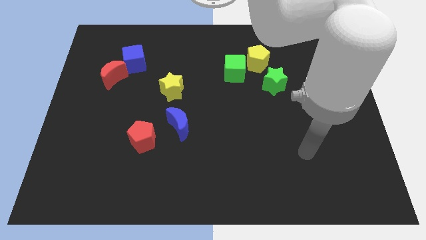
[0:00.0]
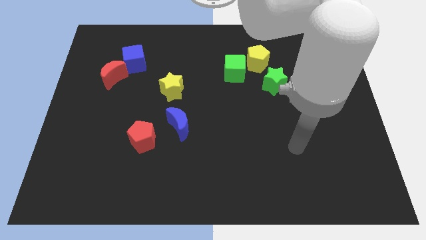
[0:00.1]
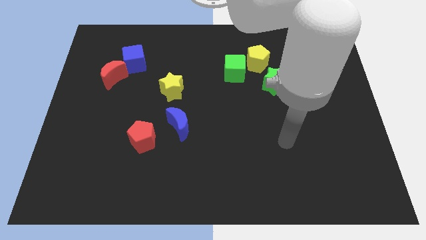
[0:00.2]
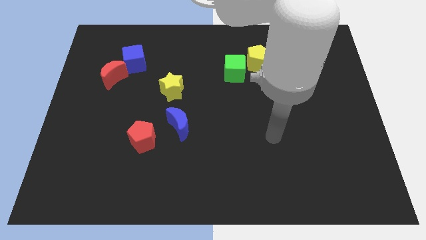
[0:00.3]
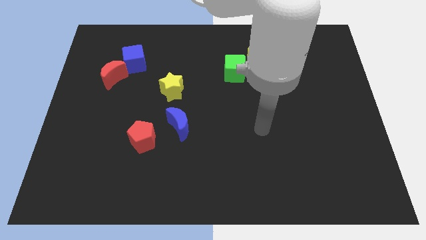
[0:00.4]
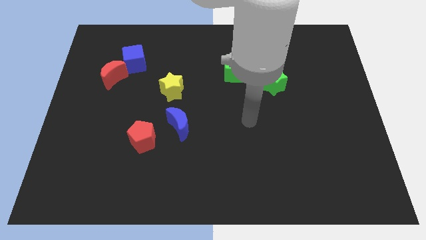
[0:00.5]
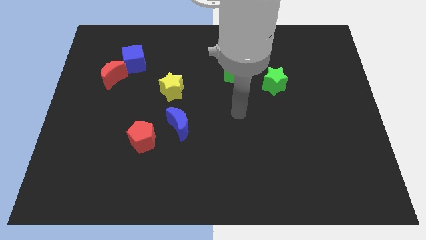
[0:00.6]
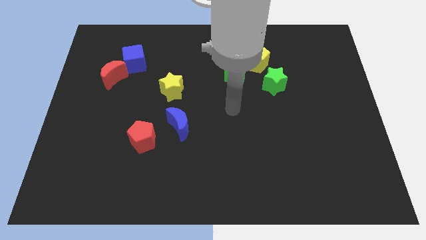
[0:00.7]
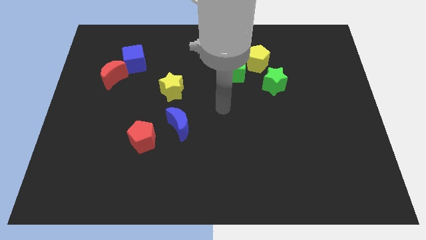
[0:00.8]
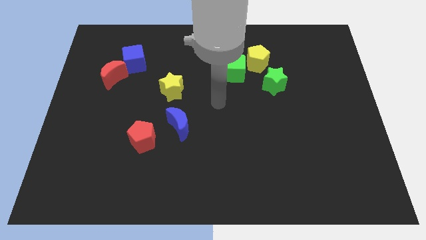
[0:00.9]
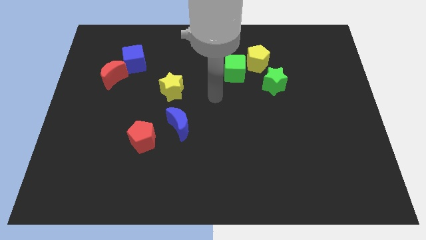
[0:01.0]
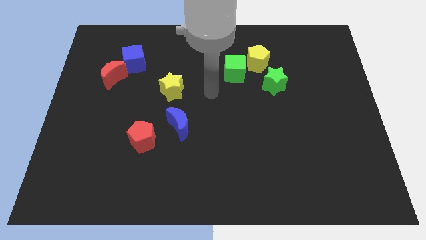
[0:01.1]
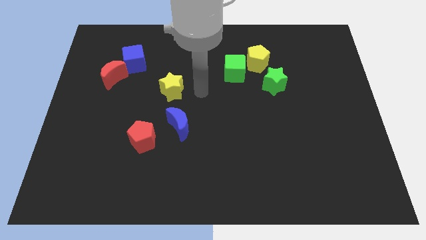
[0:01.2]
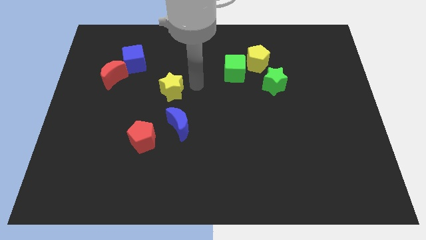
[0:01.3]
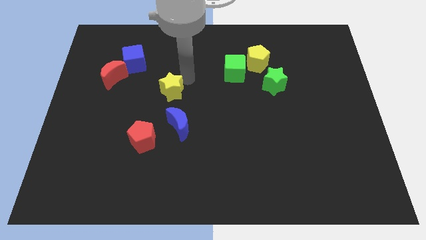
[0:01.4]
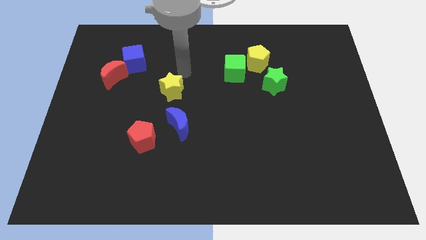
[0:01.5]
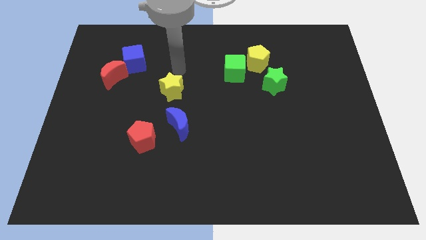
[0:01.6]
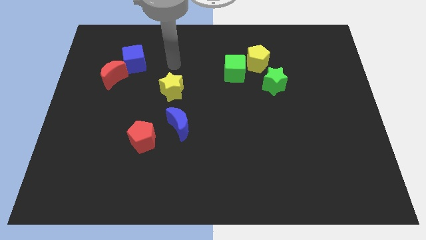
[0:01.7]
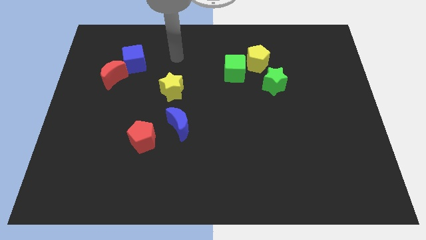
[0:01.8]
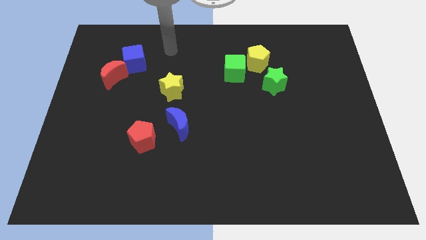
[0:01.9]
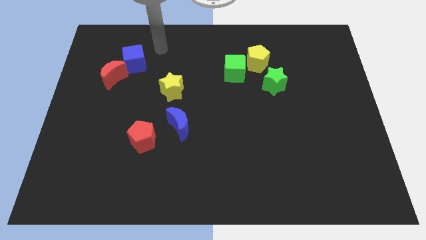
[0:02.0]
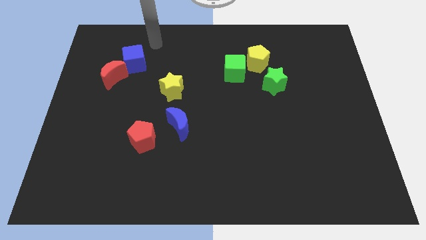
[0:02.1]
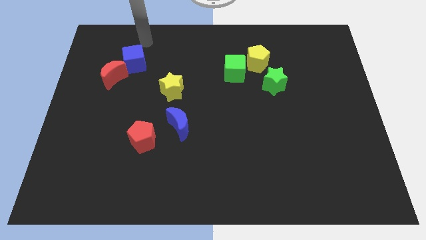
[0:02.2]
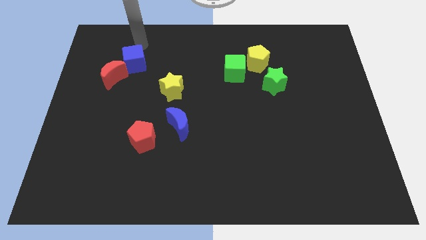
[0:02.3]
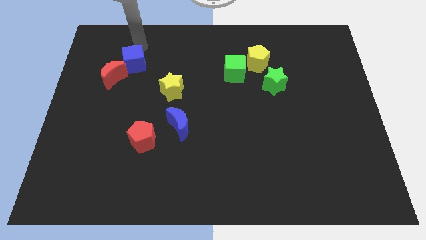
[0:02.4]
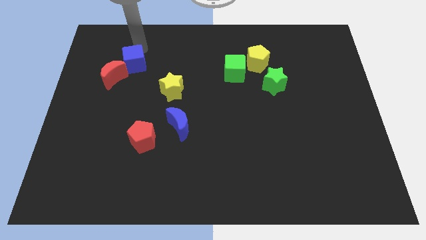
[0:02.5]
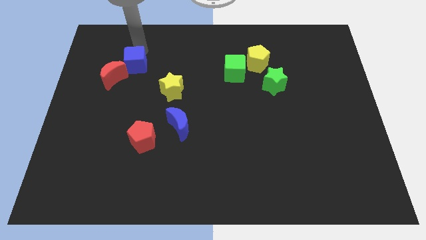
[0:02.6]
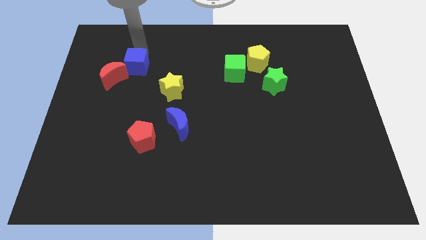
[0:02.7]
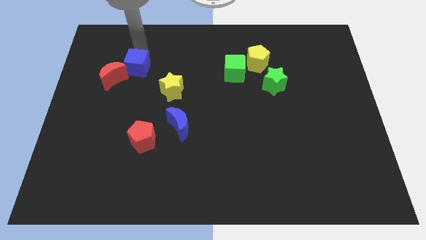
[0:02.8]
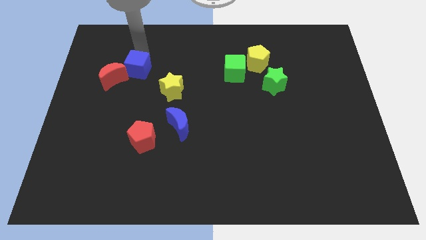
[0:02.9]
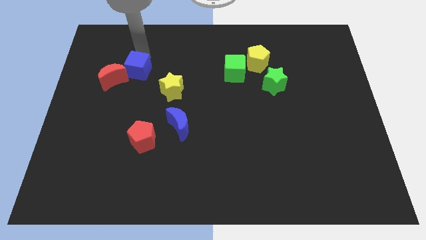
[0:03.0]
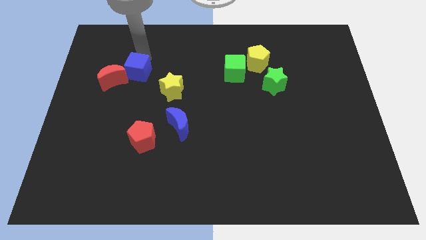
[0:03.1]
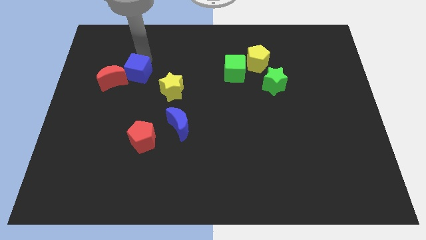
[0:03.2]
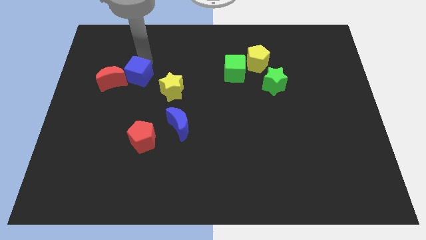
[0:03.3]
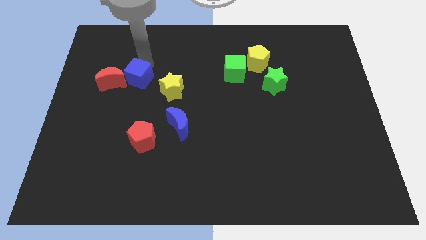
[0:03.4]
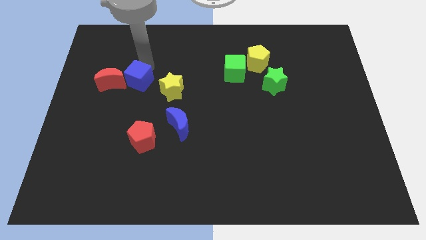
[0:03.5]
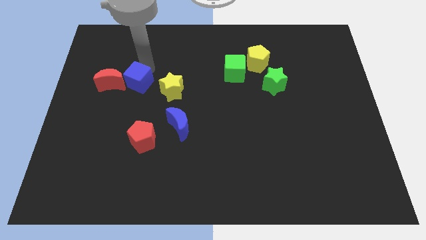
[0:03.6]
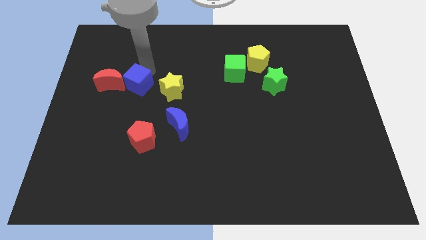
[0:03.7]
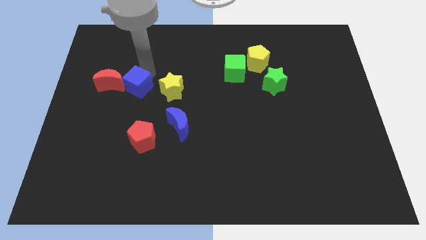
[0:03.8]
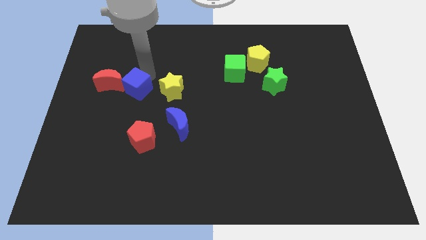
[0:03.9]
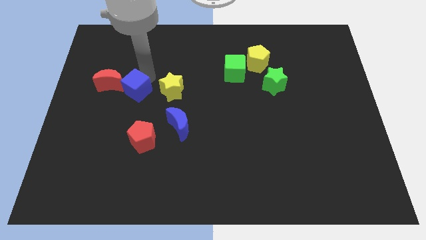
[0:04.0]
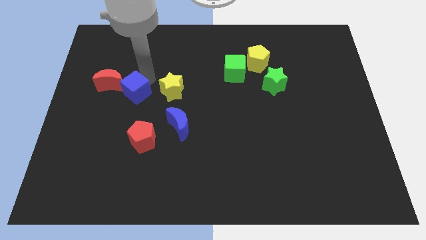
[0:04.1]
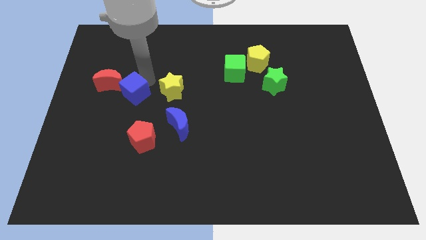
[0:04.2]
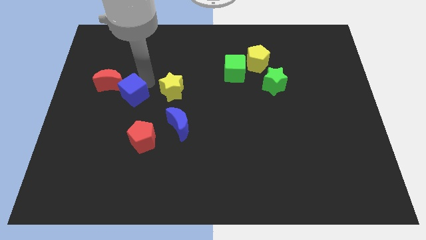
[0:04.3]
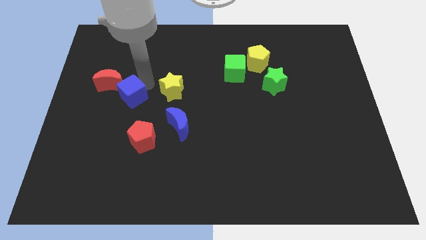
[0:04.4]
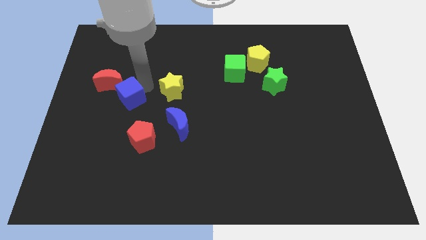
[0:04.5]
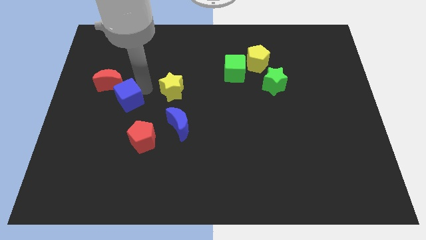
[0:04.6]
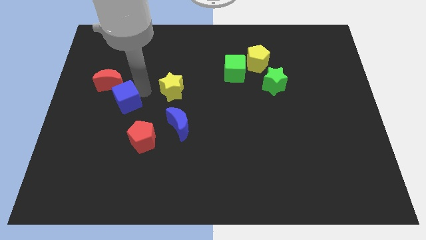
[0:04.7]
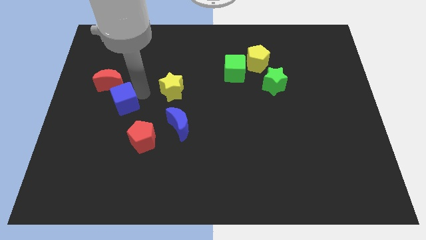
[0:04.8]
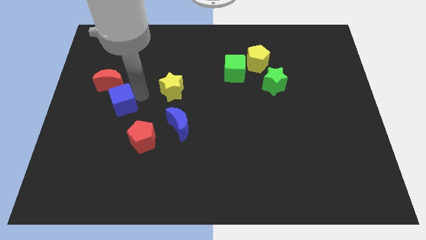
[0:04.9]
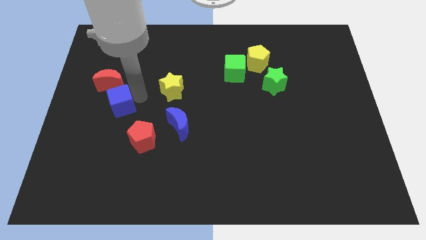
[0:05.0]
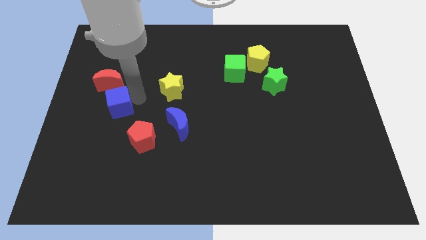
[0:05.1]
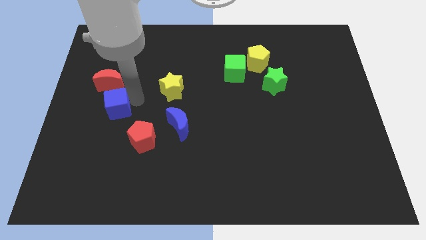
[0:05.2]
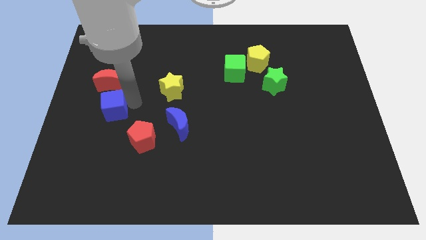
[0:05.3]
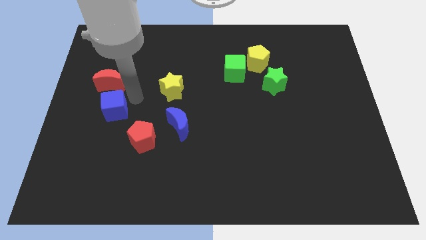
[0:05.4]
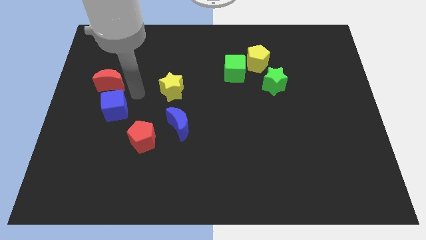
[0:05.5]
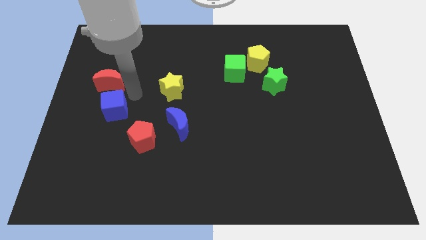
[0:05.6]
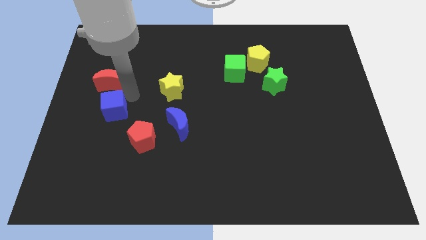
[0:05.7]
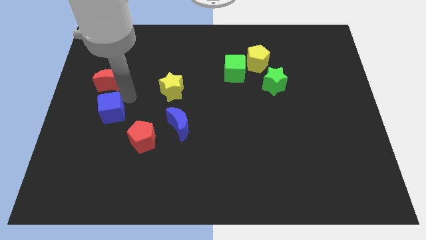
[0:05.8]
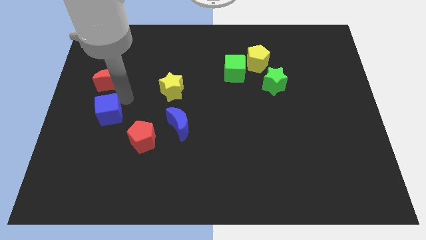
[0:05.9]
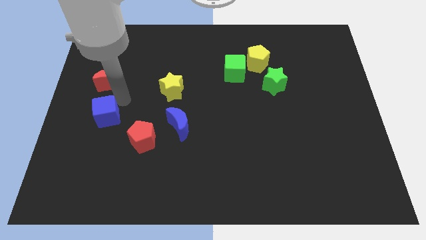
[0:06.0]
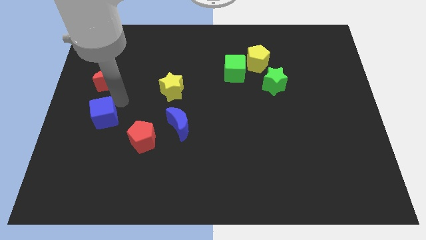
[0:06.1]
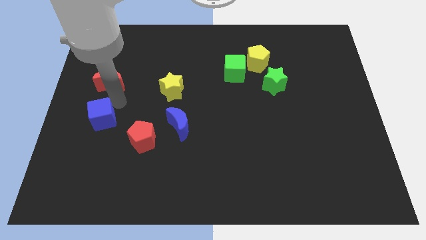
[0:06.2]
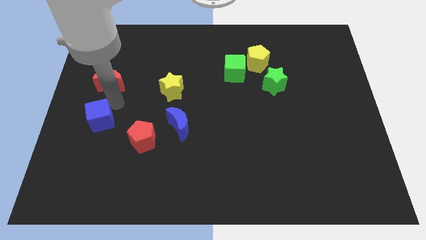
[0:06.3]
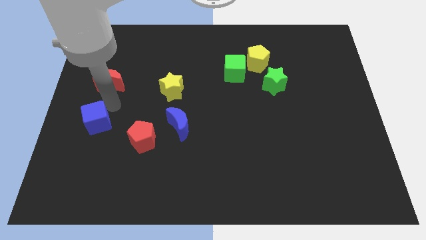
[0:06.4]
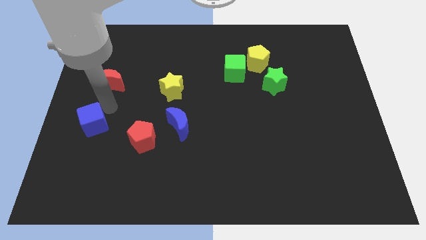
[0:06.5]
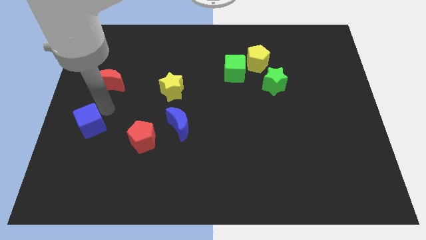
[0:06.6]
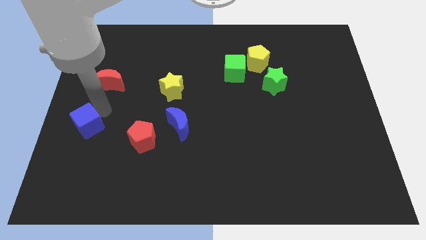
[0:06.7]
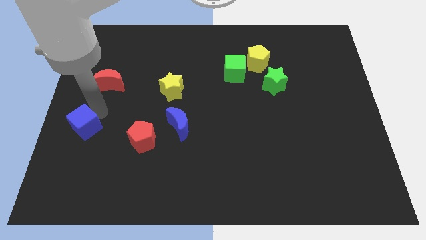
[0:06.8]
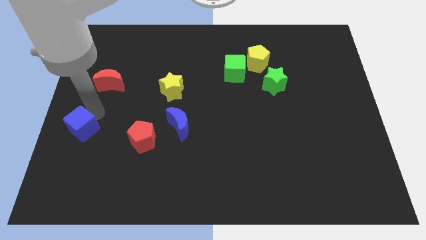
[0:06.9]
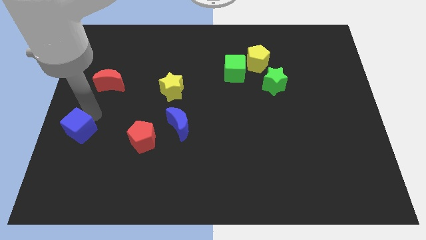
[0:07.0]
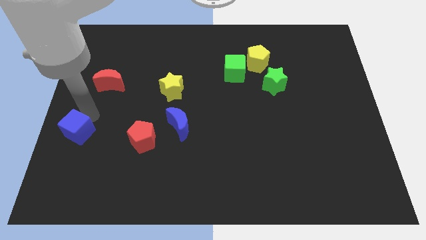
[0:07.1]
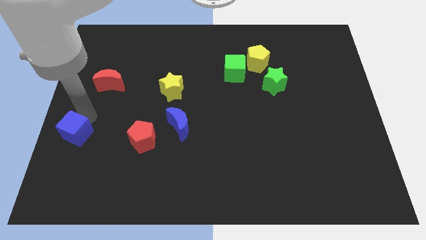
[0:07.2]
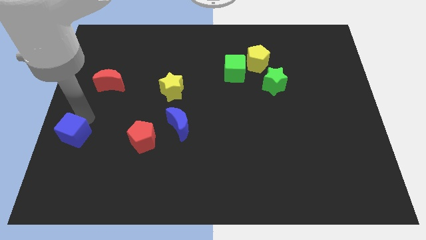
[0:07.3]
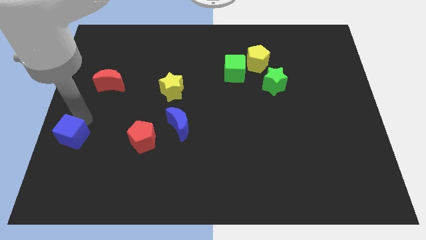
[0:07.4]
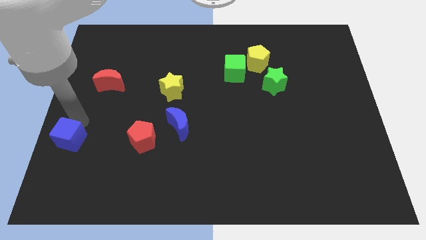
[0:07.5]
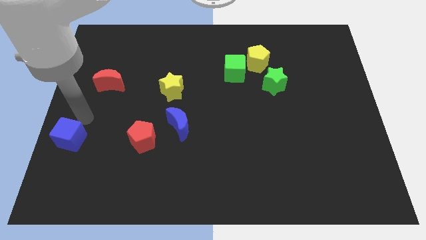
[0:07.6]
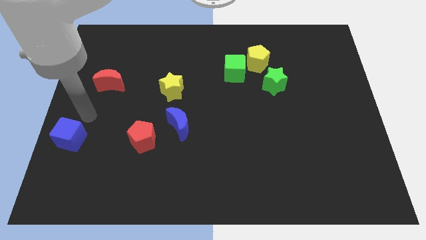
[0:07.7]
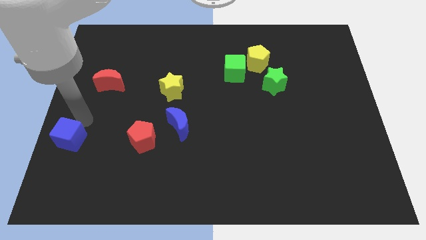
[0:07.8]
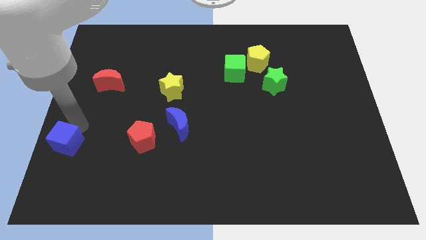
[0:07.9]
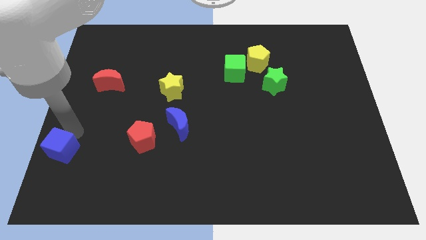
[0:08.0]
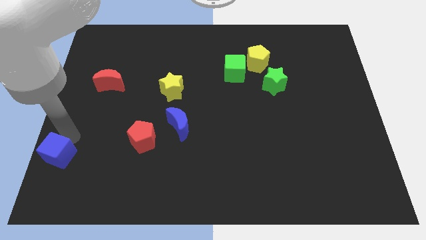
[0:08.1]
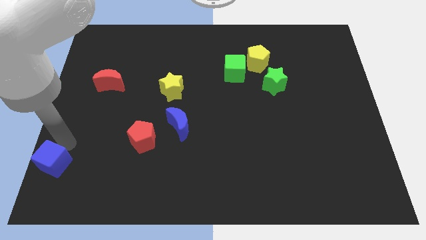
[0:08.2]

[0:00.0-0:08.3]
slide the blue cube to the lower left corner
